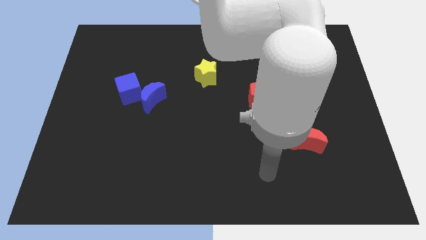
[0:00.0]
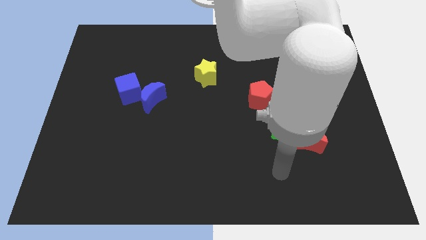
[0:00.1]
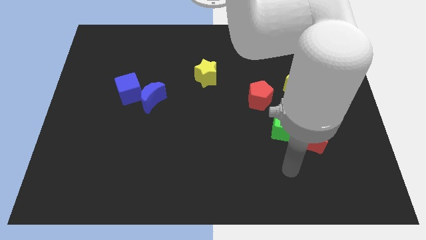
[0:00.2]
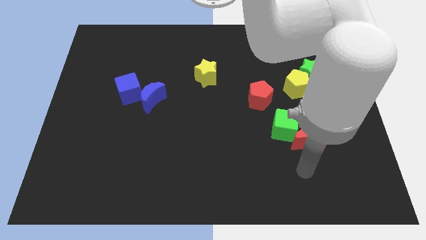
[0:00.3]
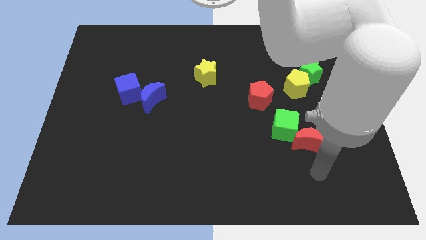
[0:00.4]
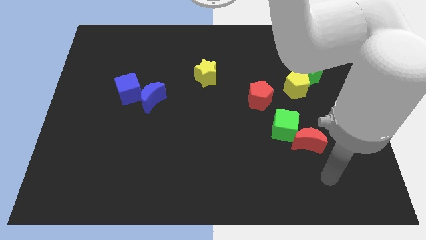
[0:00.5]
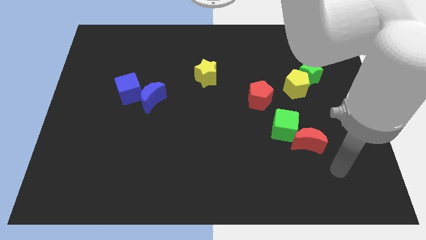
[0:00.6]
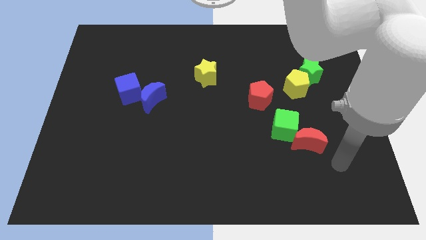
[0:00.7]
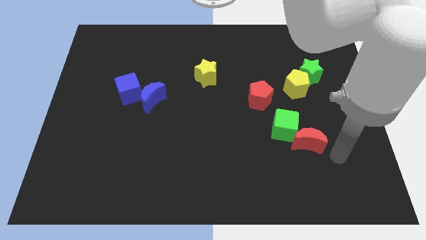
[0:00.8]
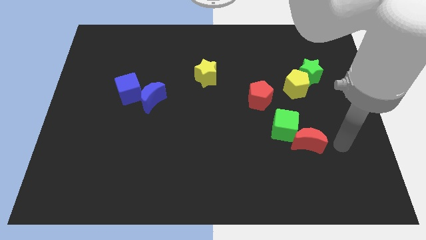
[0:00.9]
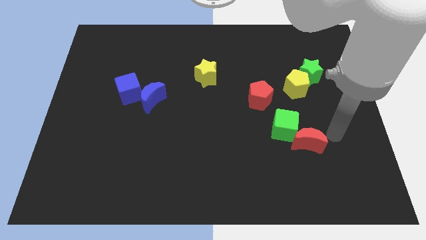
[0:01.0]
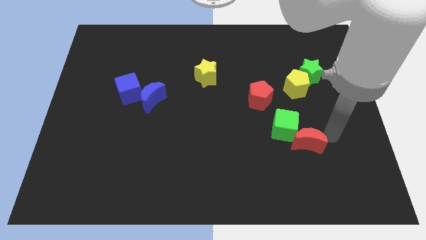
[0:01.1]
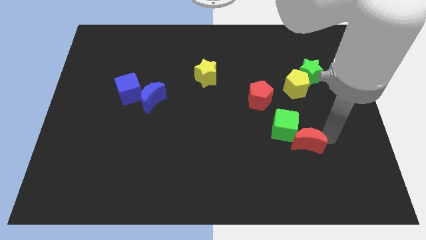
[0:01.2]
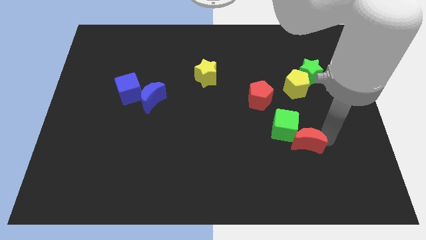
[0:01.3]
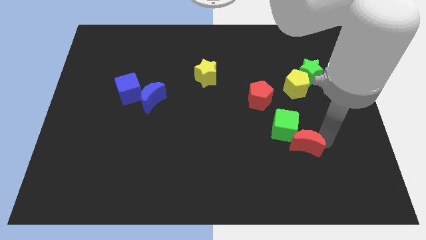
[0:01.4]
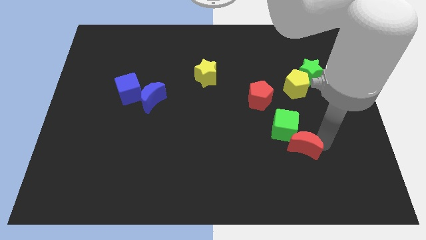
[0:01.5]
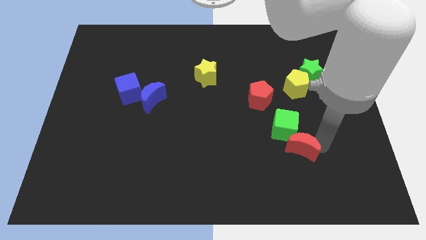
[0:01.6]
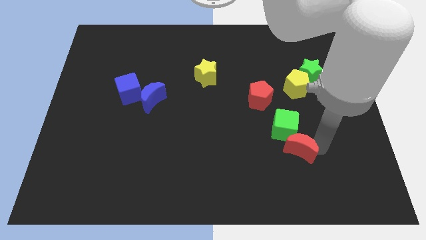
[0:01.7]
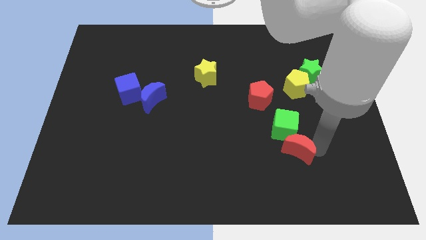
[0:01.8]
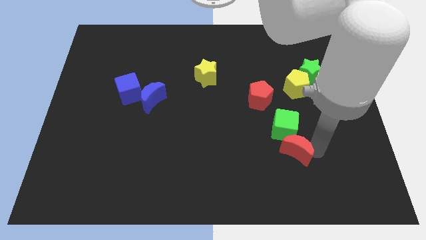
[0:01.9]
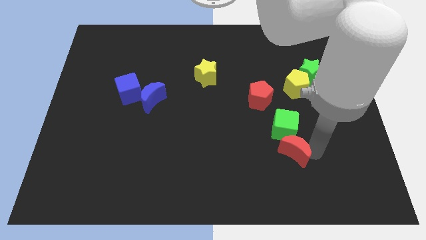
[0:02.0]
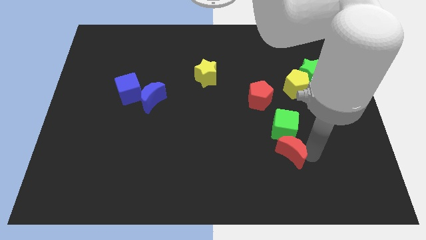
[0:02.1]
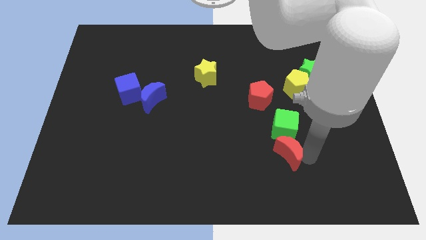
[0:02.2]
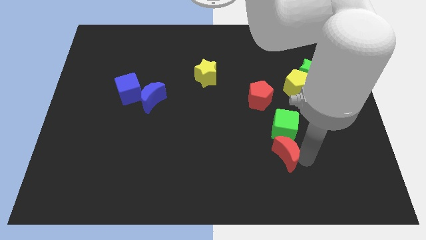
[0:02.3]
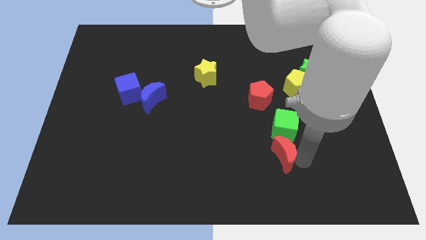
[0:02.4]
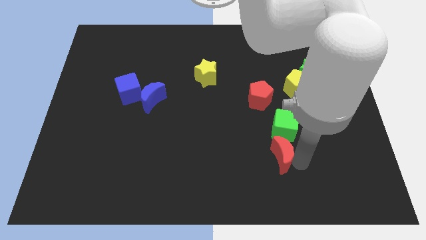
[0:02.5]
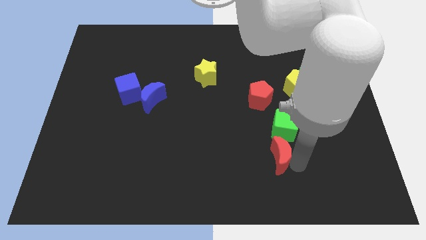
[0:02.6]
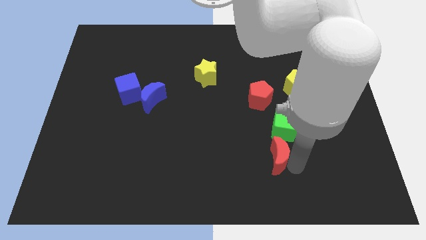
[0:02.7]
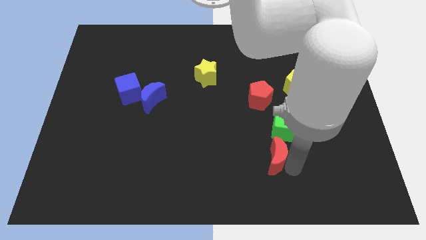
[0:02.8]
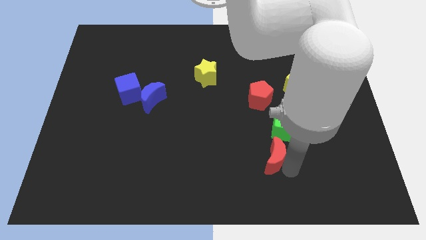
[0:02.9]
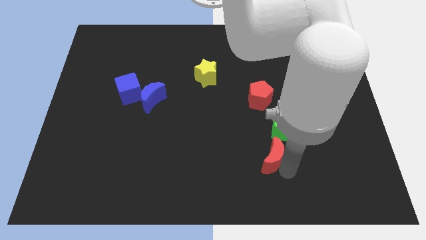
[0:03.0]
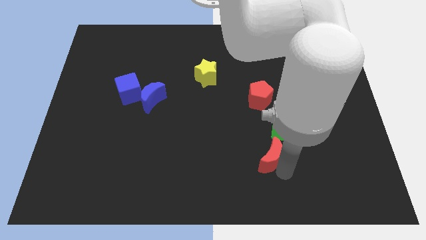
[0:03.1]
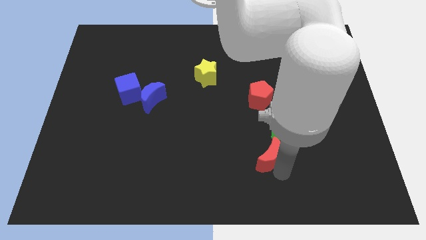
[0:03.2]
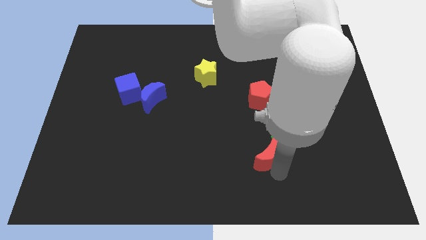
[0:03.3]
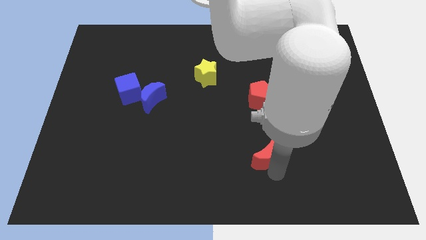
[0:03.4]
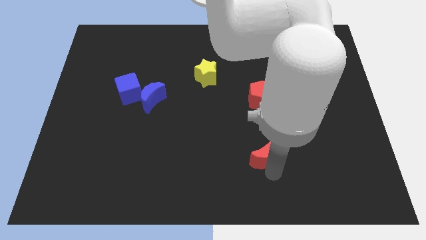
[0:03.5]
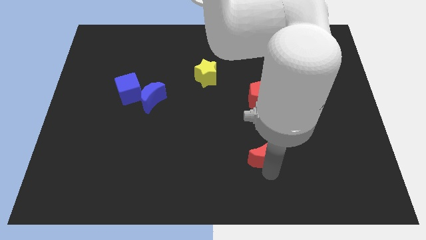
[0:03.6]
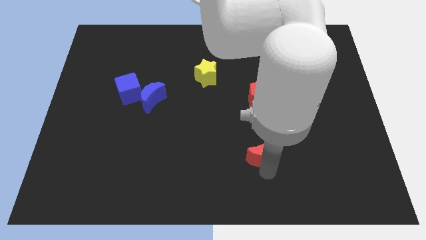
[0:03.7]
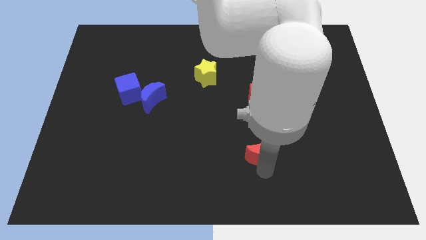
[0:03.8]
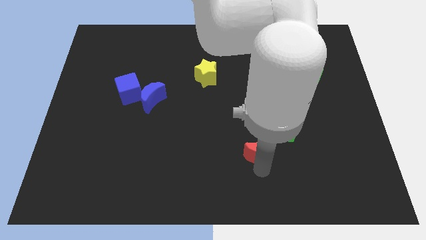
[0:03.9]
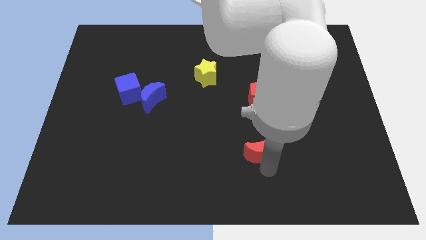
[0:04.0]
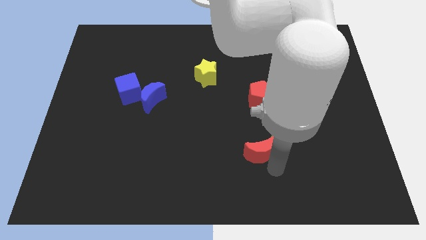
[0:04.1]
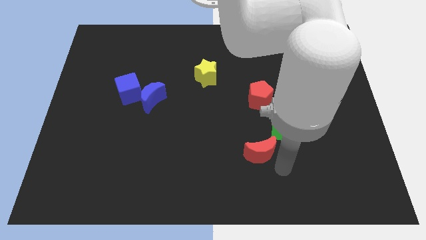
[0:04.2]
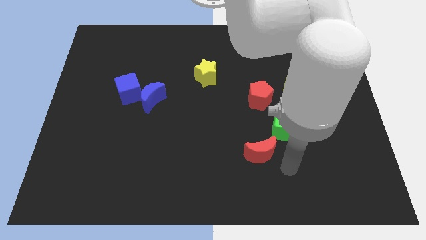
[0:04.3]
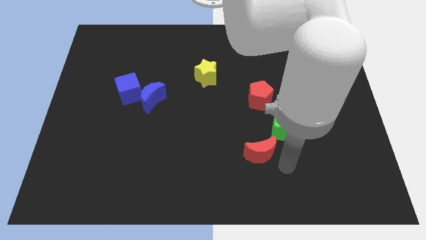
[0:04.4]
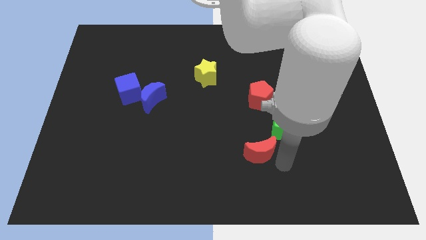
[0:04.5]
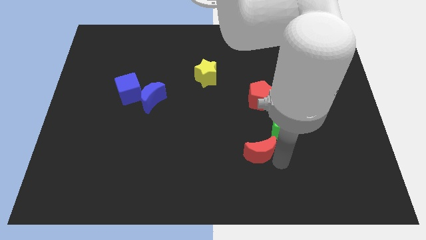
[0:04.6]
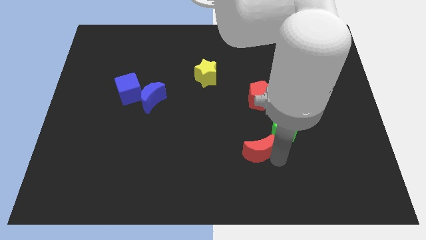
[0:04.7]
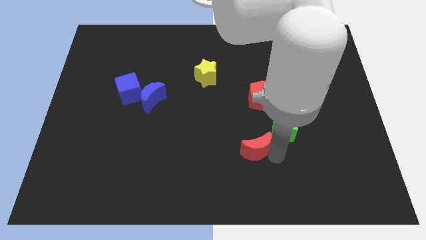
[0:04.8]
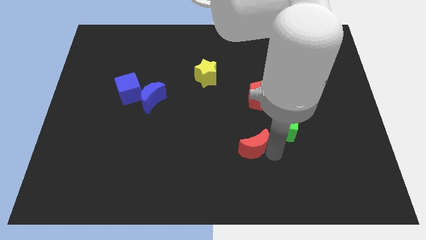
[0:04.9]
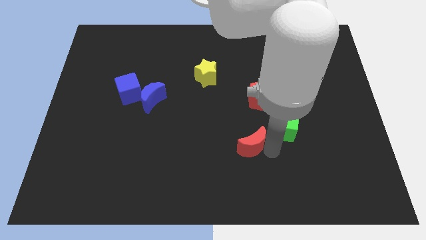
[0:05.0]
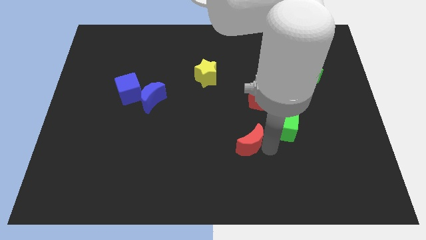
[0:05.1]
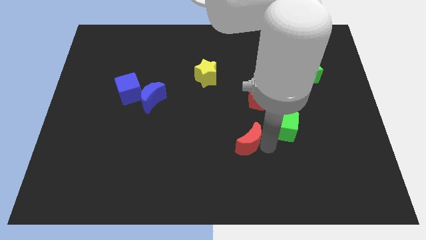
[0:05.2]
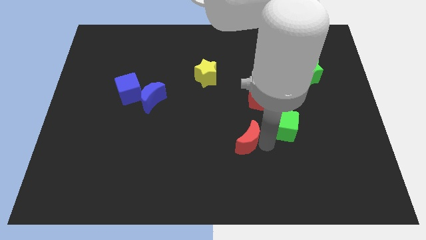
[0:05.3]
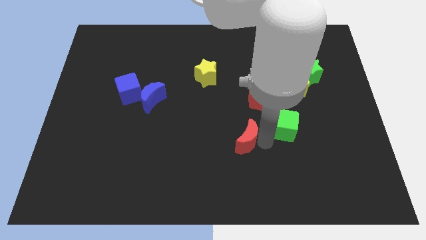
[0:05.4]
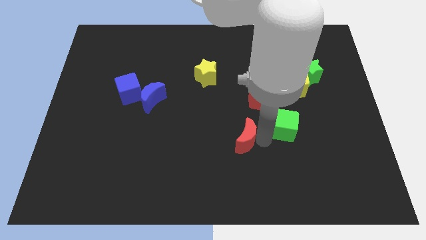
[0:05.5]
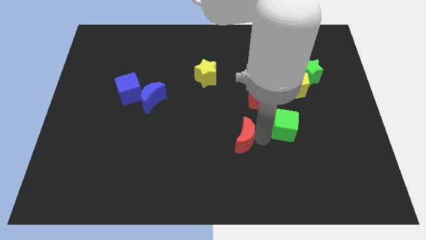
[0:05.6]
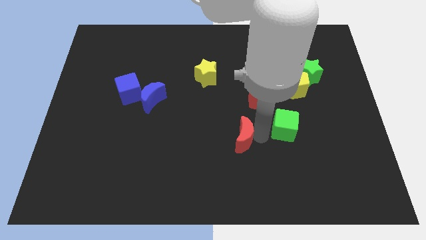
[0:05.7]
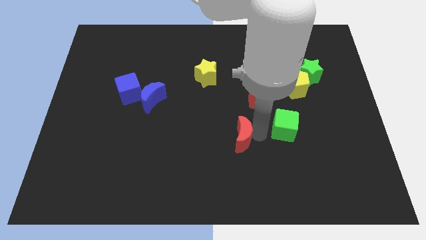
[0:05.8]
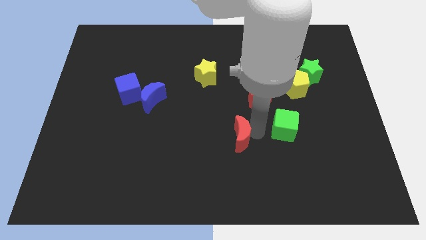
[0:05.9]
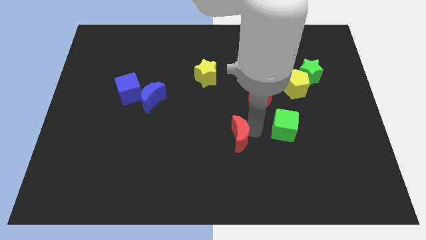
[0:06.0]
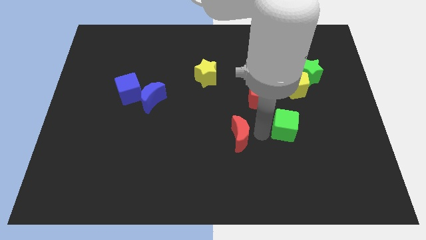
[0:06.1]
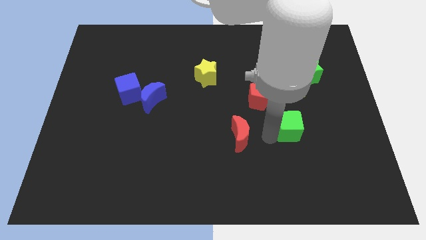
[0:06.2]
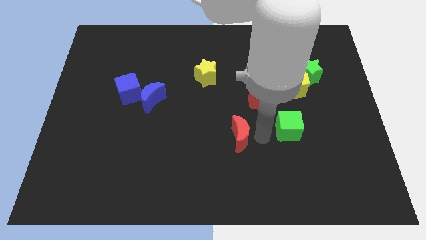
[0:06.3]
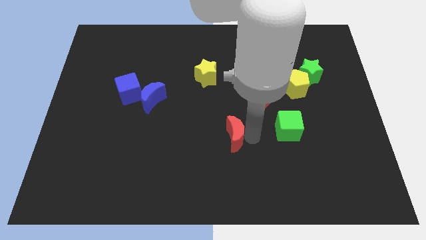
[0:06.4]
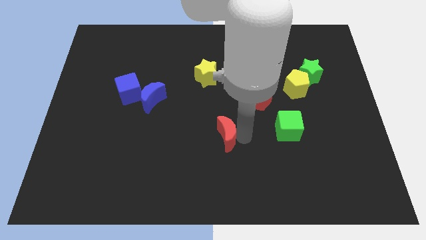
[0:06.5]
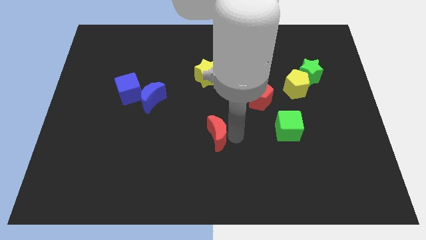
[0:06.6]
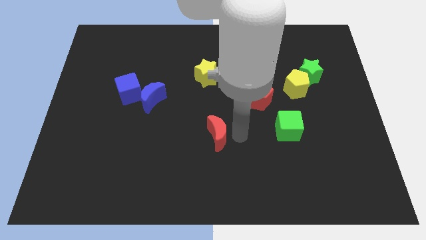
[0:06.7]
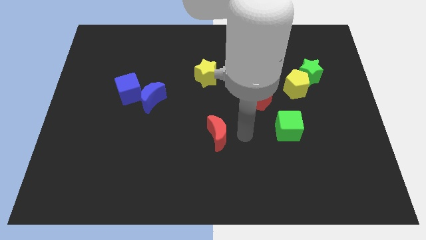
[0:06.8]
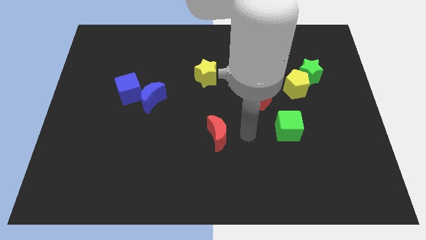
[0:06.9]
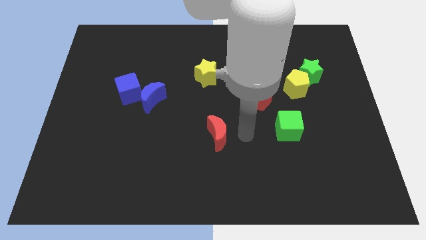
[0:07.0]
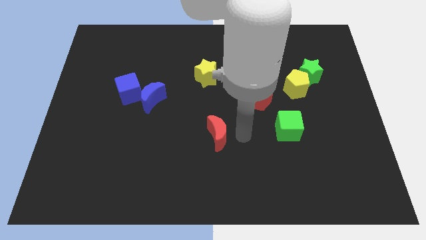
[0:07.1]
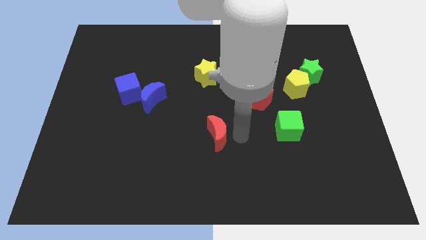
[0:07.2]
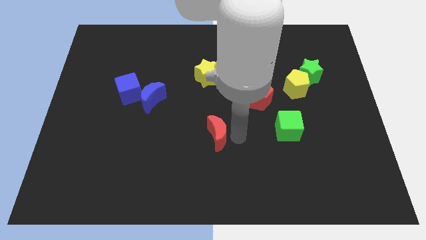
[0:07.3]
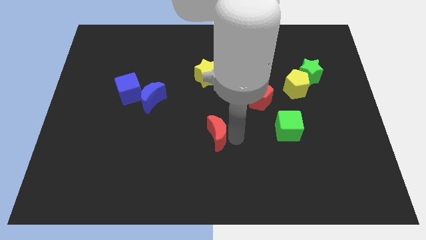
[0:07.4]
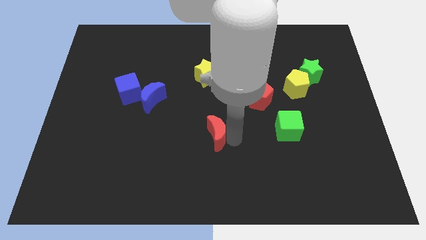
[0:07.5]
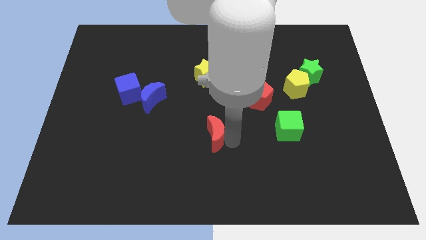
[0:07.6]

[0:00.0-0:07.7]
slide the red moon left

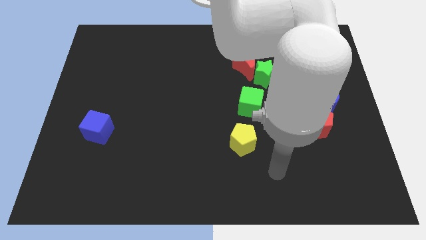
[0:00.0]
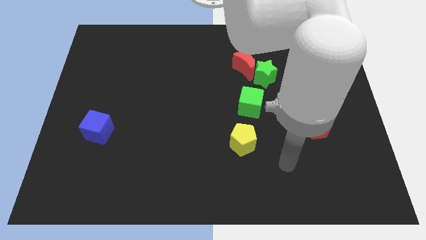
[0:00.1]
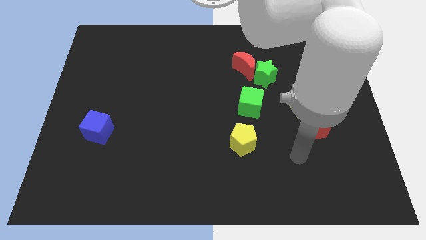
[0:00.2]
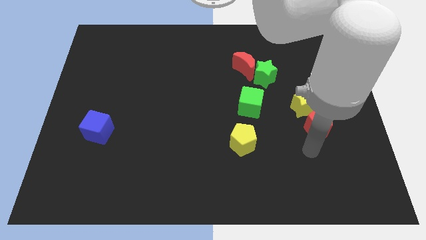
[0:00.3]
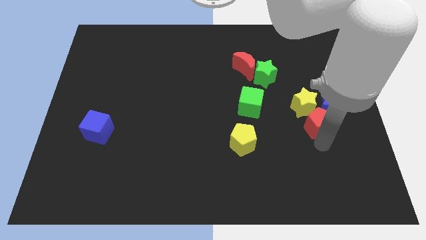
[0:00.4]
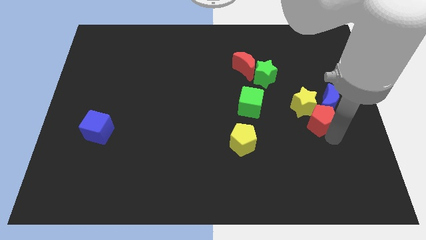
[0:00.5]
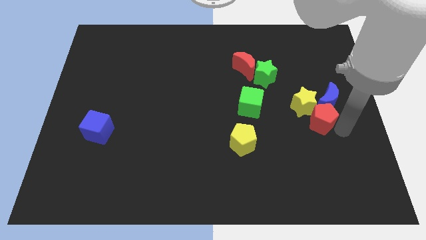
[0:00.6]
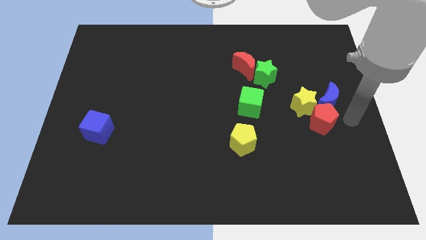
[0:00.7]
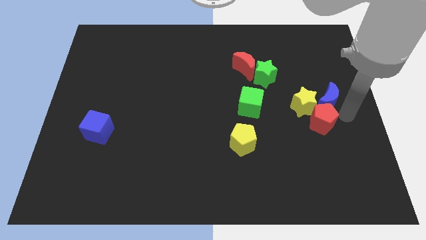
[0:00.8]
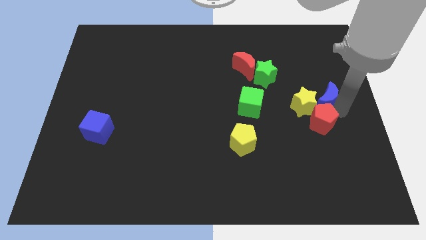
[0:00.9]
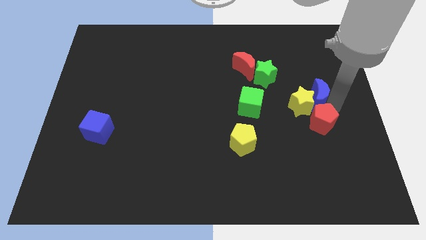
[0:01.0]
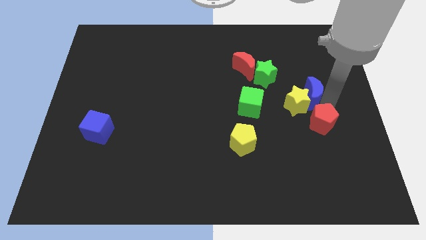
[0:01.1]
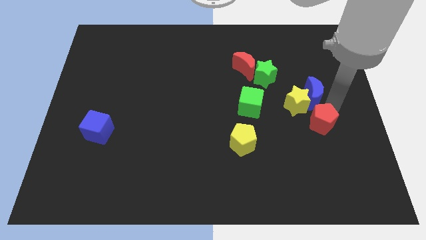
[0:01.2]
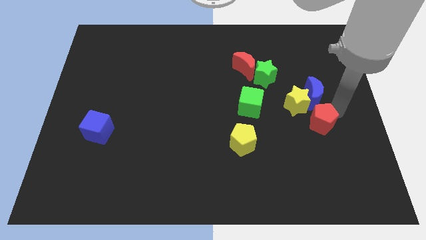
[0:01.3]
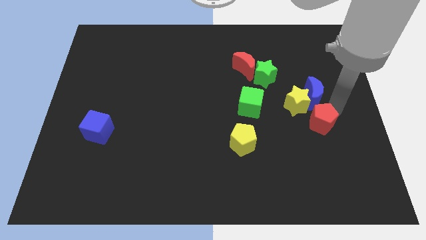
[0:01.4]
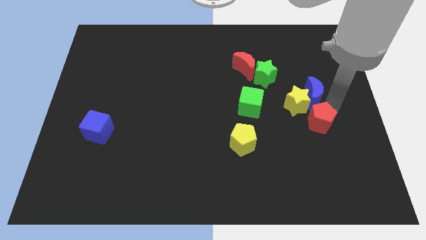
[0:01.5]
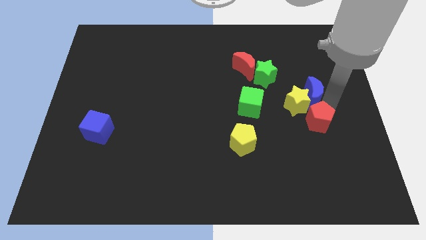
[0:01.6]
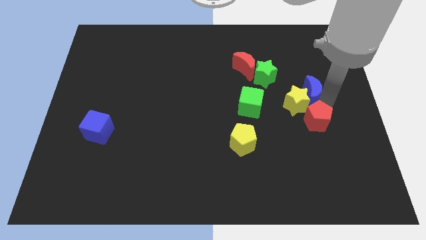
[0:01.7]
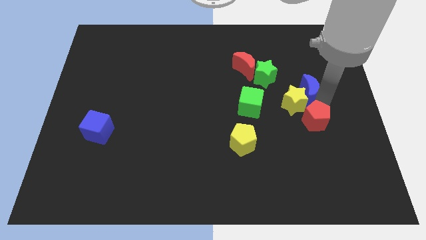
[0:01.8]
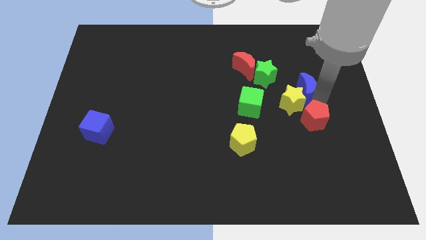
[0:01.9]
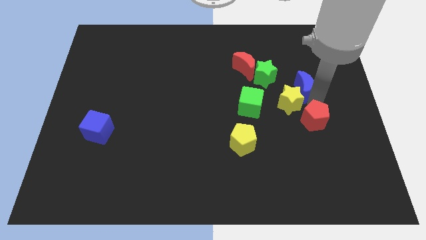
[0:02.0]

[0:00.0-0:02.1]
push the blue moon a little bit upwards and left diagonally
